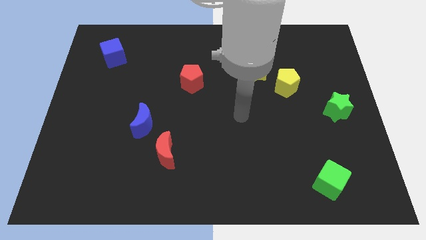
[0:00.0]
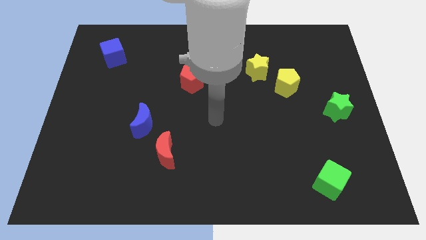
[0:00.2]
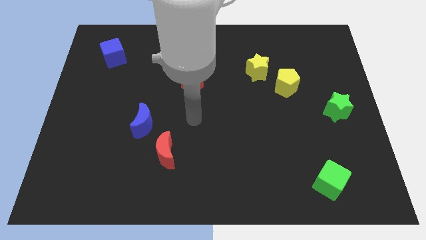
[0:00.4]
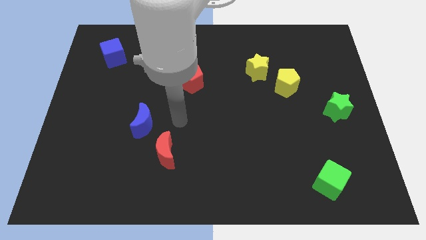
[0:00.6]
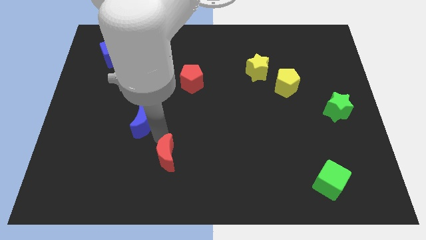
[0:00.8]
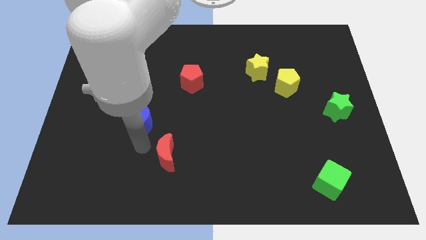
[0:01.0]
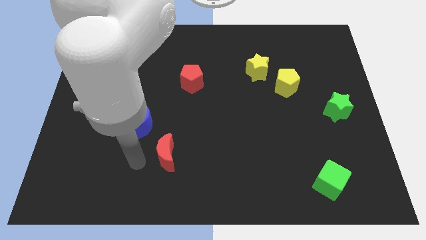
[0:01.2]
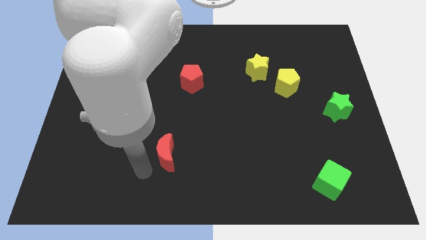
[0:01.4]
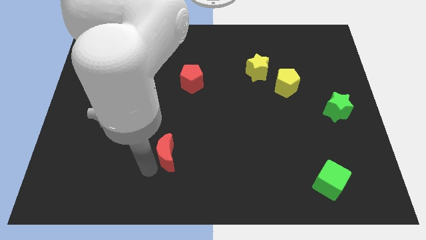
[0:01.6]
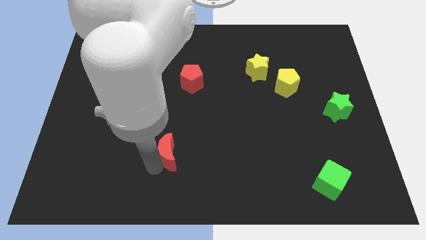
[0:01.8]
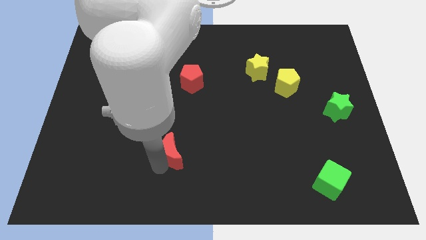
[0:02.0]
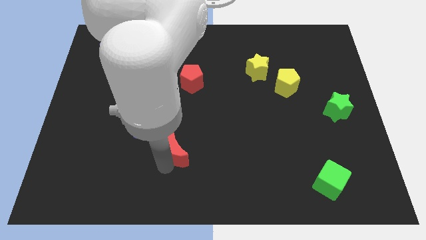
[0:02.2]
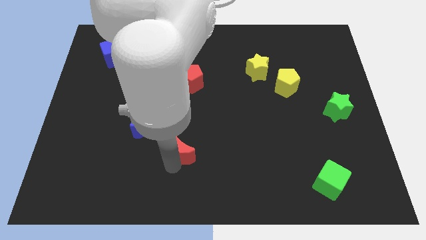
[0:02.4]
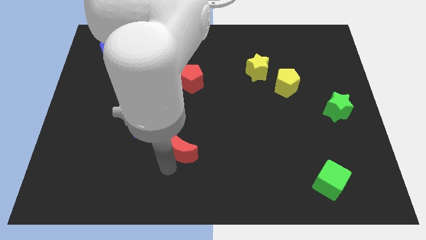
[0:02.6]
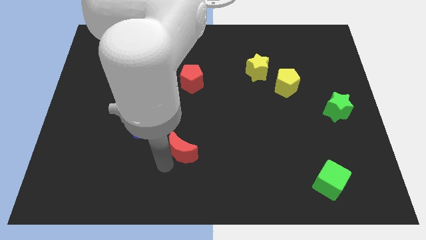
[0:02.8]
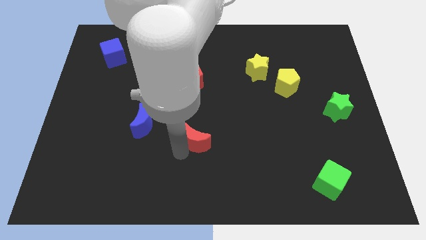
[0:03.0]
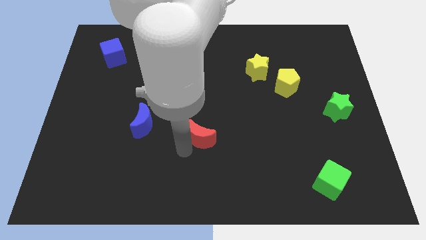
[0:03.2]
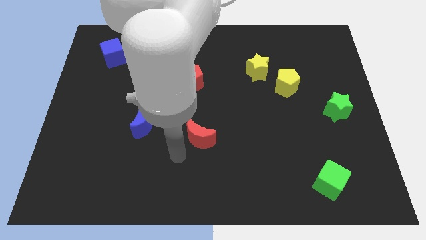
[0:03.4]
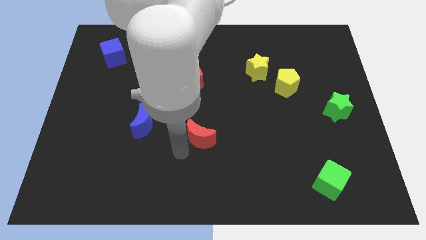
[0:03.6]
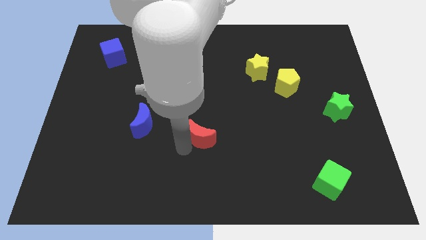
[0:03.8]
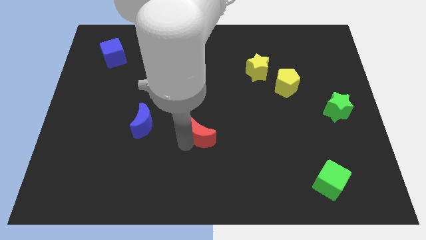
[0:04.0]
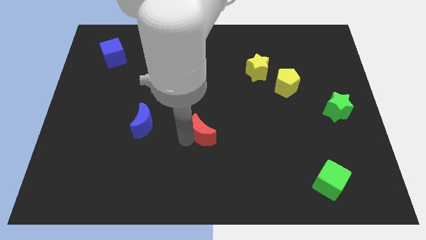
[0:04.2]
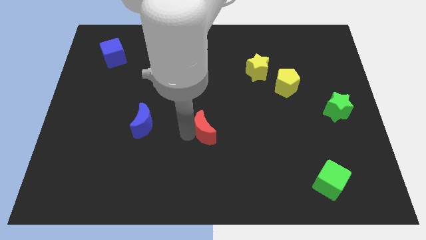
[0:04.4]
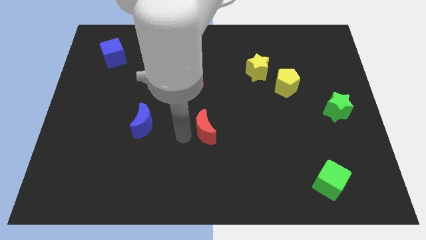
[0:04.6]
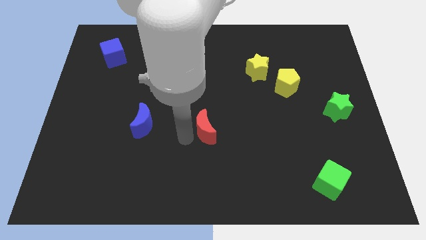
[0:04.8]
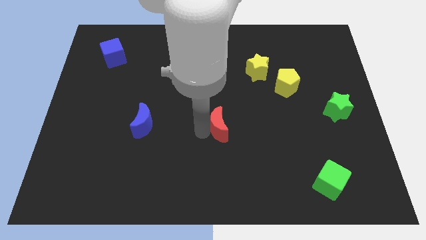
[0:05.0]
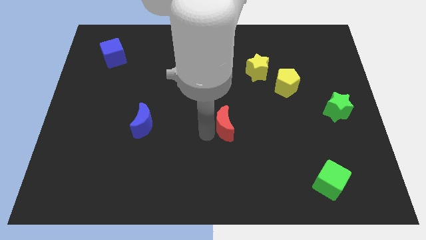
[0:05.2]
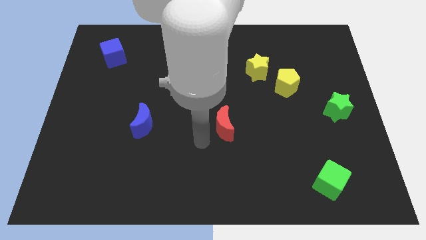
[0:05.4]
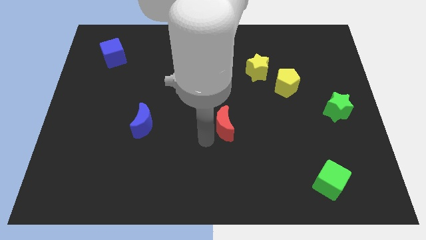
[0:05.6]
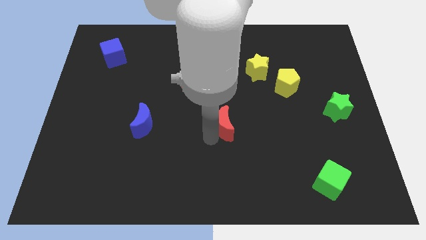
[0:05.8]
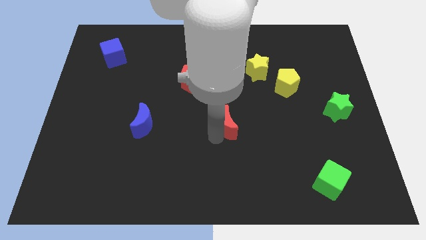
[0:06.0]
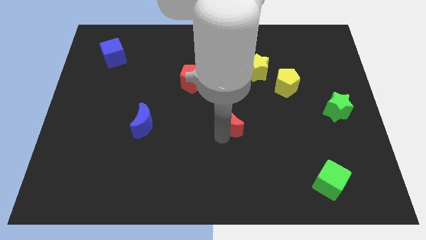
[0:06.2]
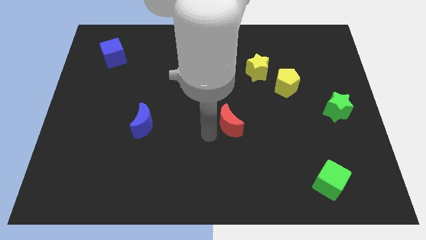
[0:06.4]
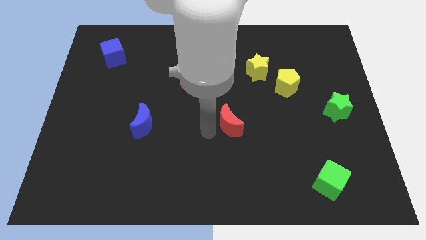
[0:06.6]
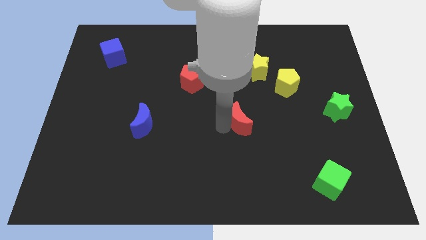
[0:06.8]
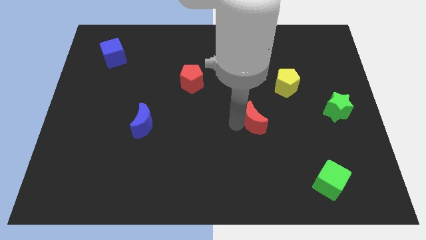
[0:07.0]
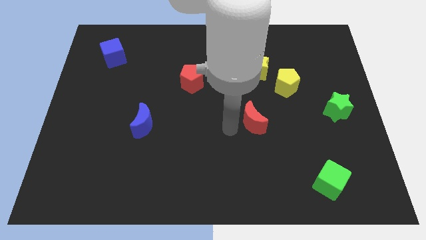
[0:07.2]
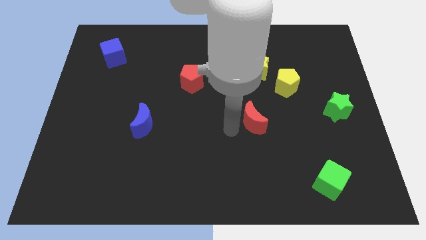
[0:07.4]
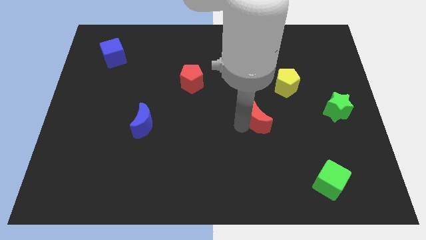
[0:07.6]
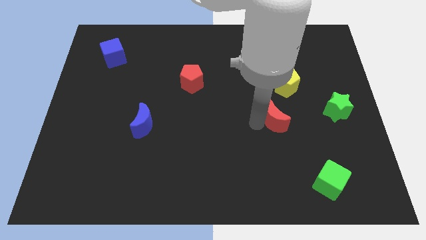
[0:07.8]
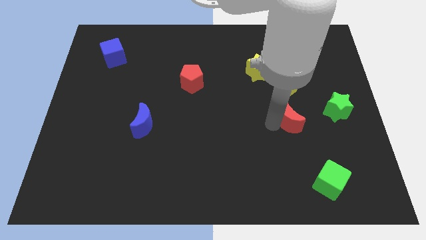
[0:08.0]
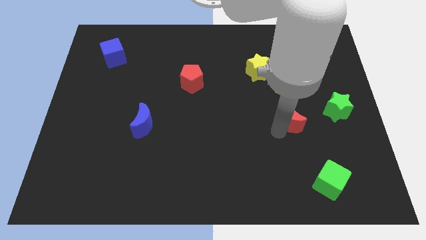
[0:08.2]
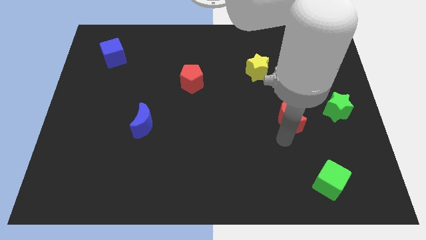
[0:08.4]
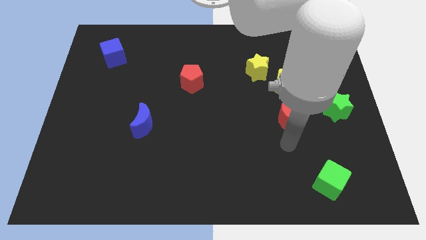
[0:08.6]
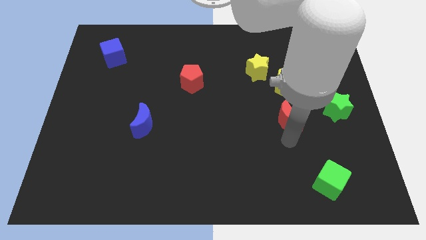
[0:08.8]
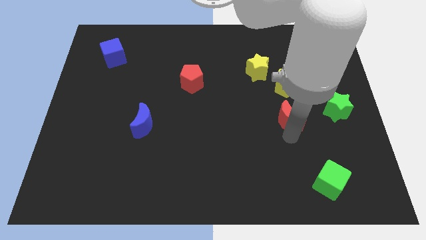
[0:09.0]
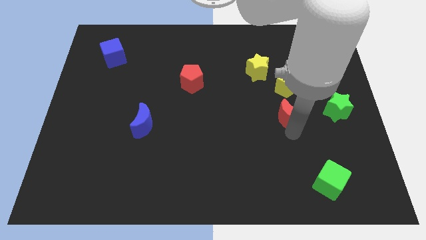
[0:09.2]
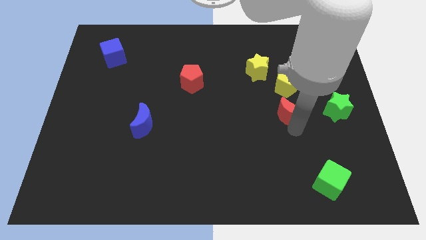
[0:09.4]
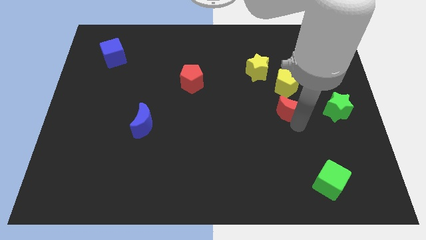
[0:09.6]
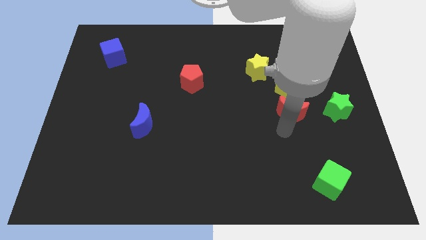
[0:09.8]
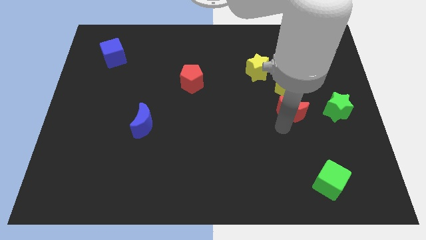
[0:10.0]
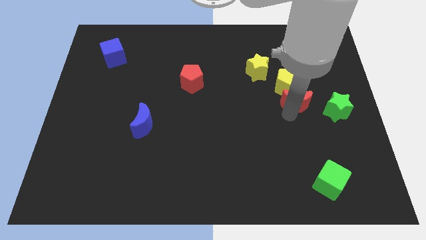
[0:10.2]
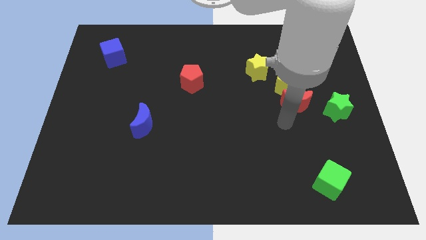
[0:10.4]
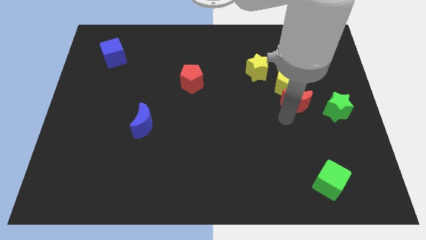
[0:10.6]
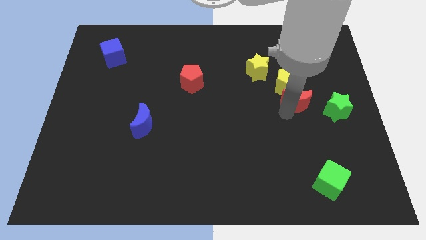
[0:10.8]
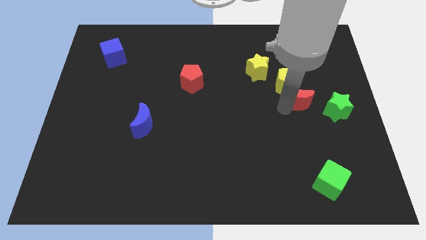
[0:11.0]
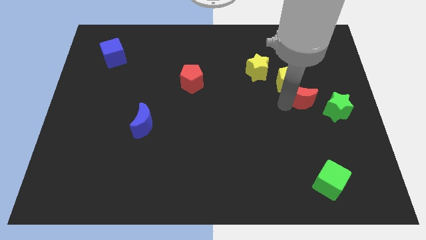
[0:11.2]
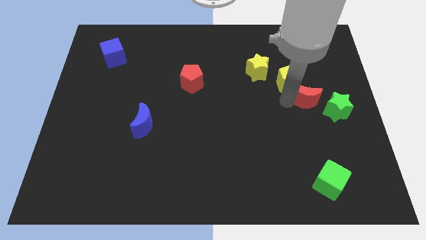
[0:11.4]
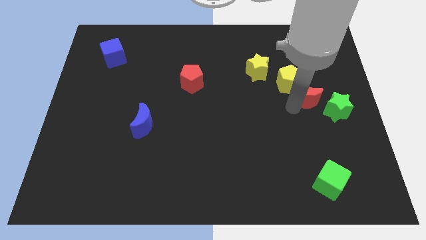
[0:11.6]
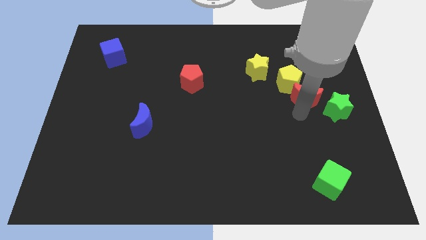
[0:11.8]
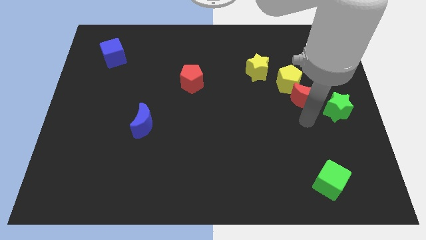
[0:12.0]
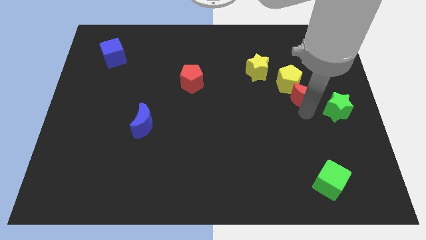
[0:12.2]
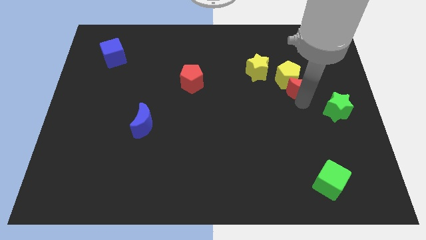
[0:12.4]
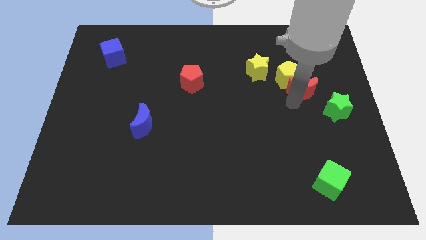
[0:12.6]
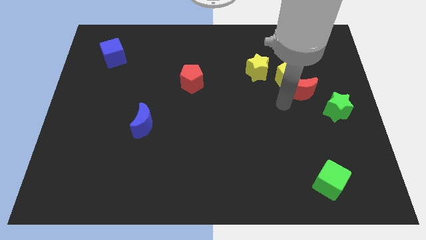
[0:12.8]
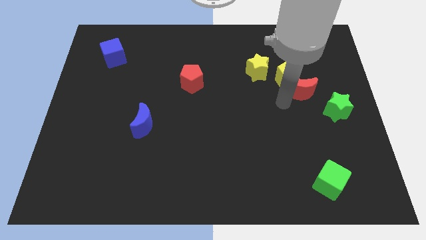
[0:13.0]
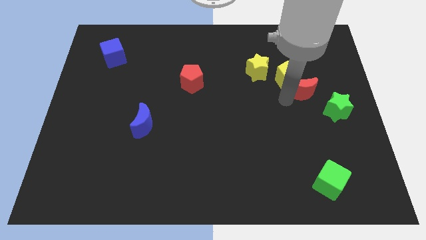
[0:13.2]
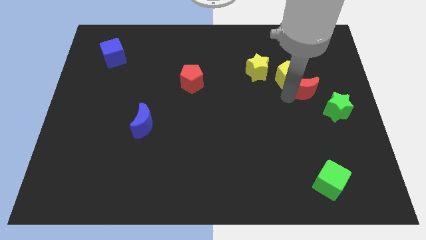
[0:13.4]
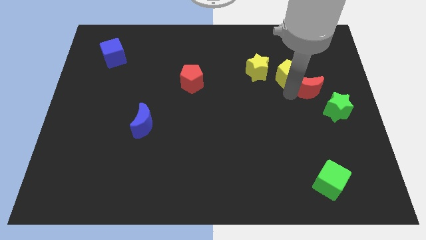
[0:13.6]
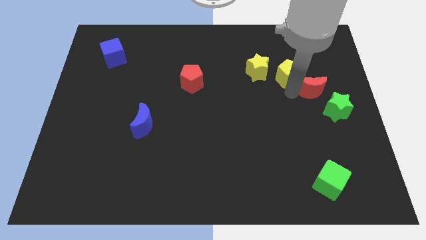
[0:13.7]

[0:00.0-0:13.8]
push the red moon to the top side of the green star
